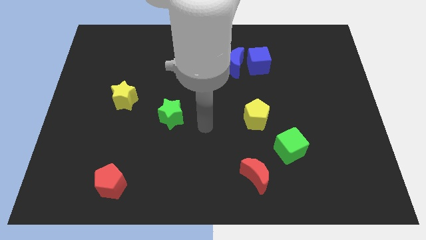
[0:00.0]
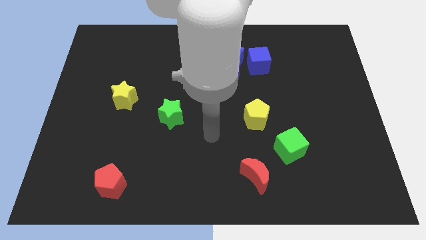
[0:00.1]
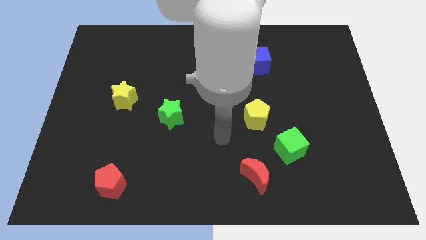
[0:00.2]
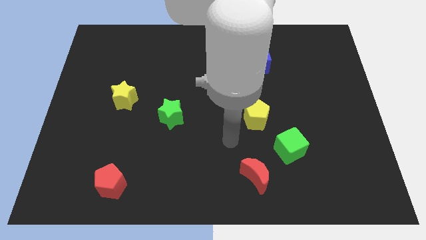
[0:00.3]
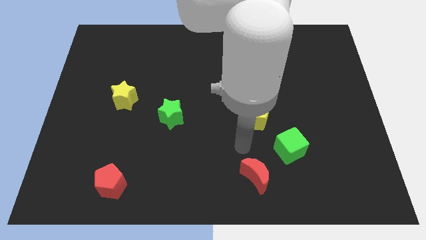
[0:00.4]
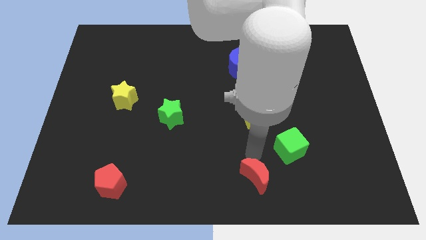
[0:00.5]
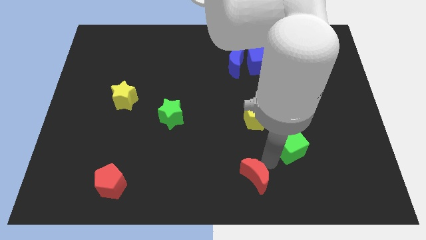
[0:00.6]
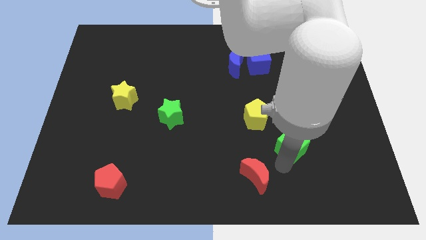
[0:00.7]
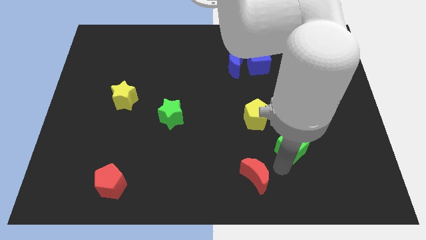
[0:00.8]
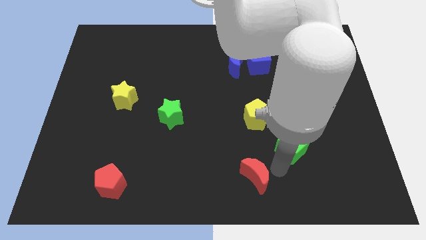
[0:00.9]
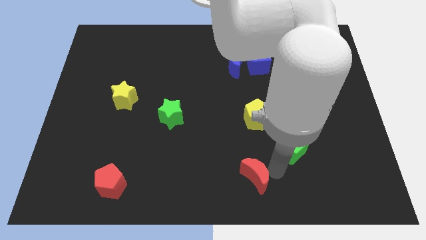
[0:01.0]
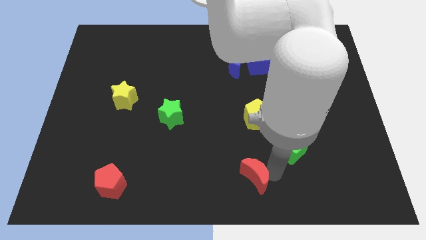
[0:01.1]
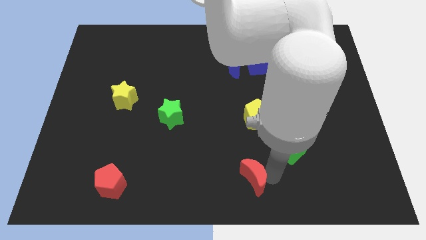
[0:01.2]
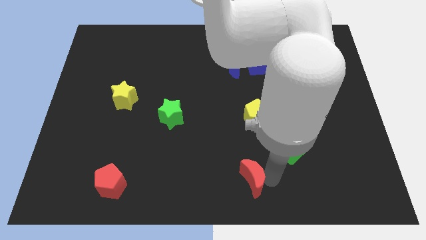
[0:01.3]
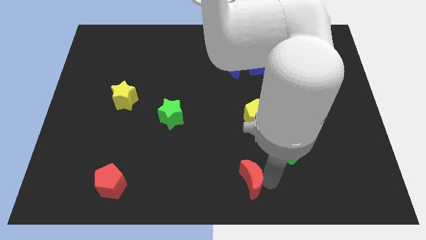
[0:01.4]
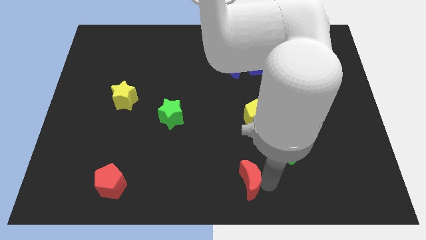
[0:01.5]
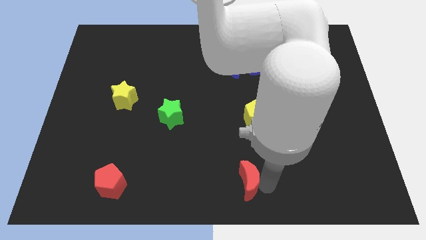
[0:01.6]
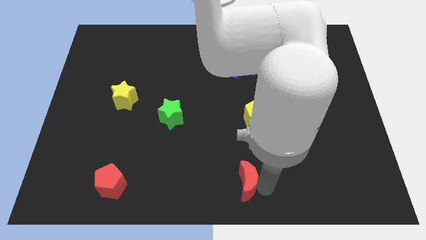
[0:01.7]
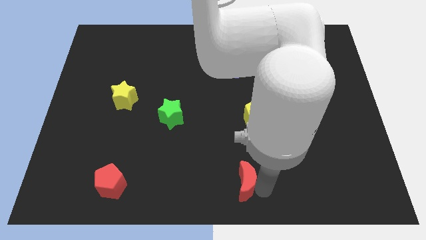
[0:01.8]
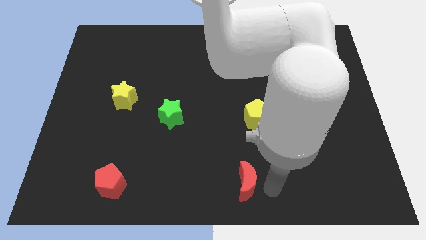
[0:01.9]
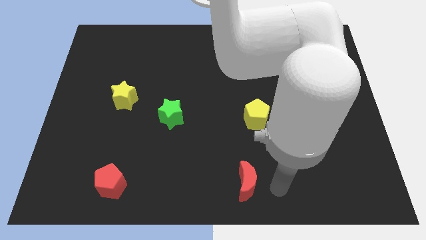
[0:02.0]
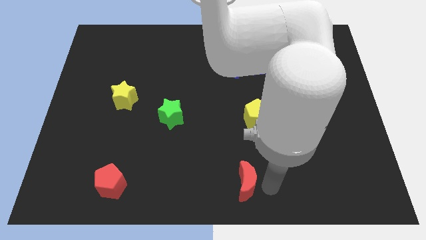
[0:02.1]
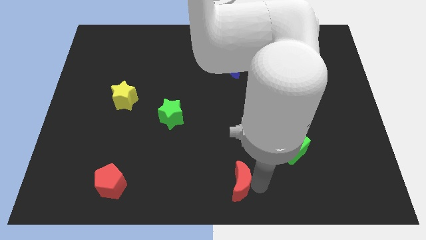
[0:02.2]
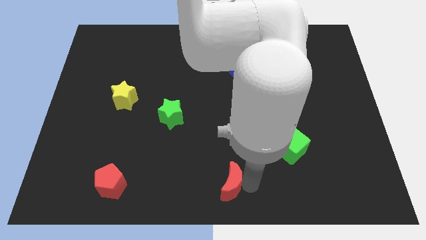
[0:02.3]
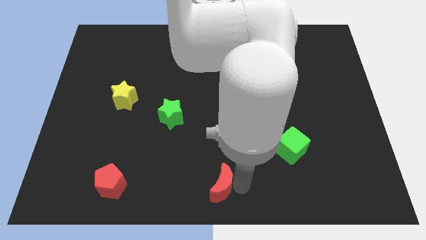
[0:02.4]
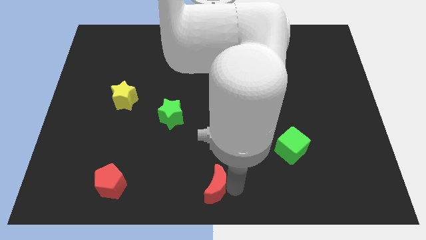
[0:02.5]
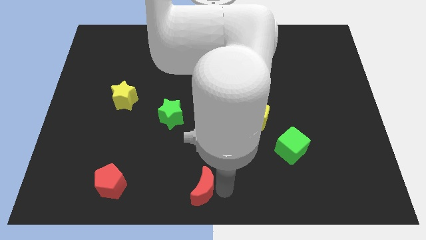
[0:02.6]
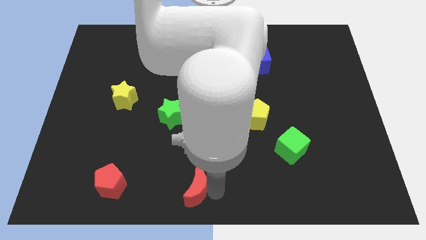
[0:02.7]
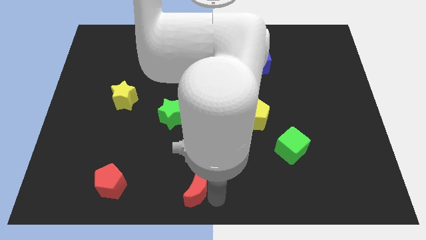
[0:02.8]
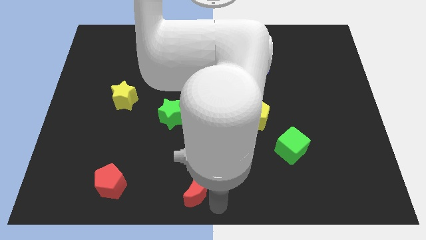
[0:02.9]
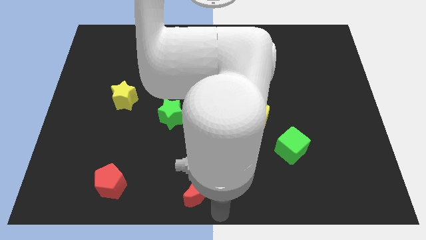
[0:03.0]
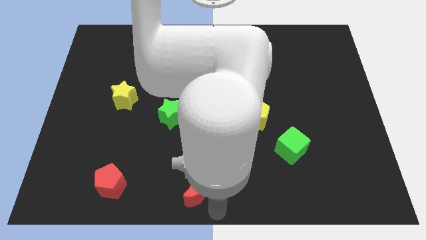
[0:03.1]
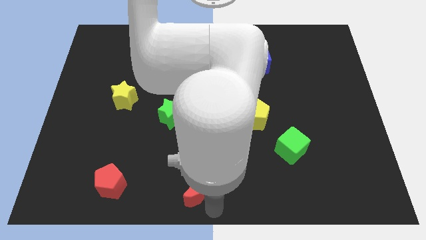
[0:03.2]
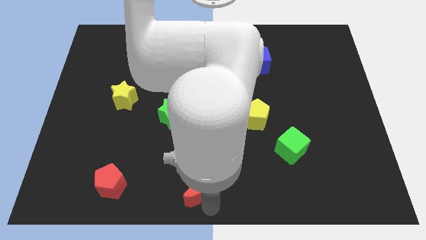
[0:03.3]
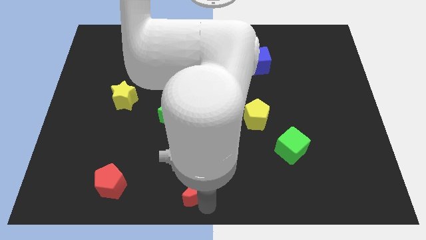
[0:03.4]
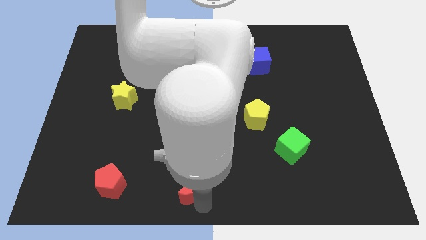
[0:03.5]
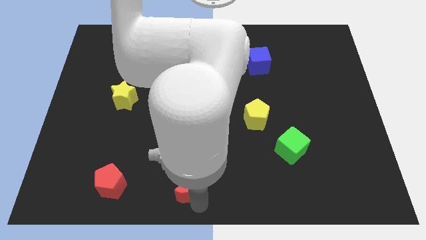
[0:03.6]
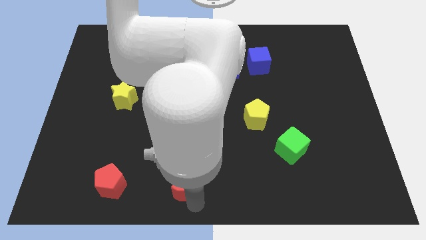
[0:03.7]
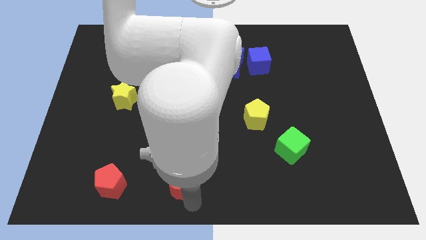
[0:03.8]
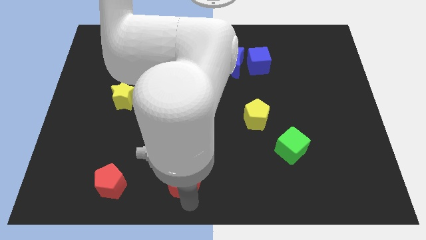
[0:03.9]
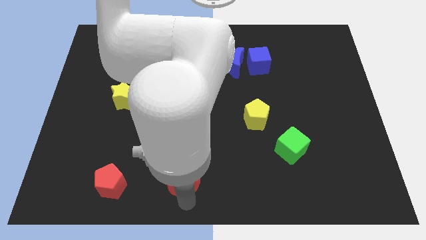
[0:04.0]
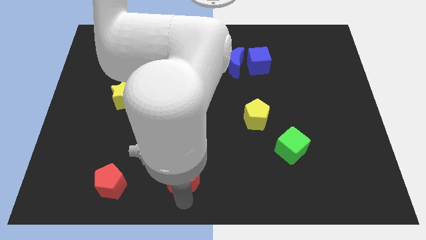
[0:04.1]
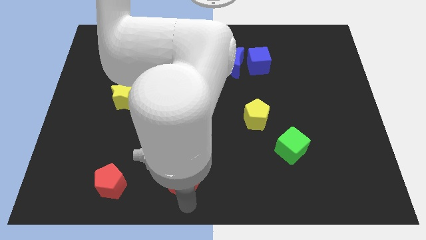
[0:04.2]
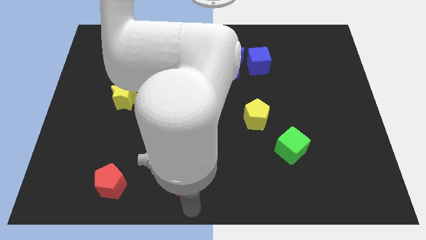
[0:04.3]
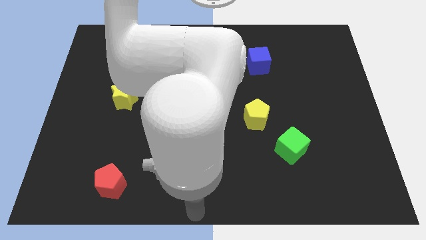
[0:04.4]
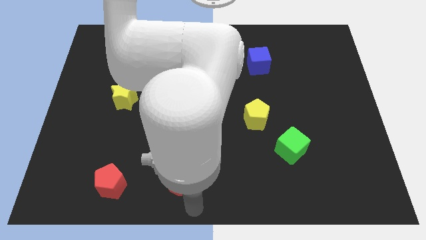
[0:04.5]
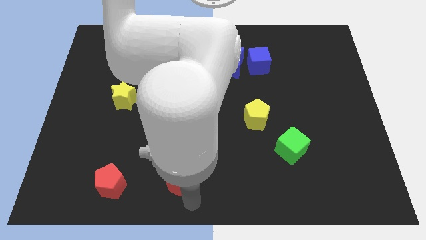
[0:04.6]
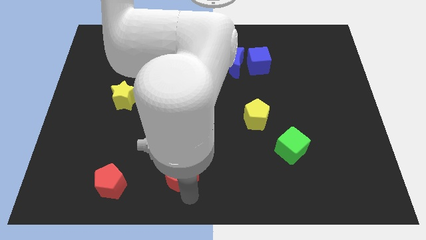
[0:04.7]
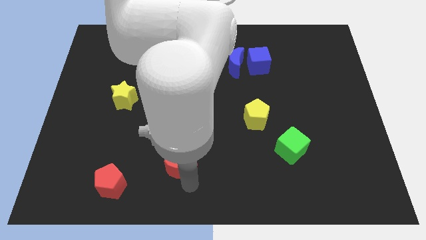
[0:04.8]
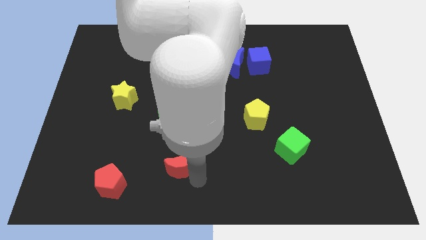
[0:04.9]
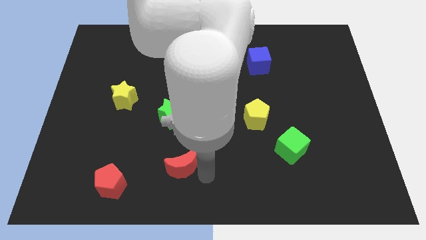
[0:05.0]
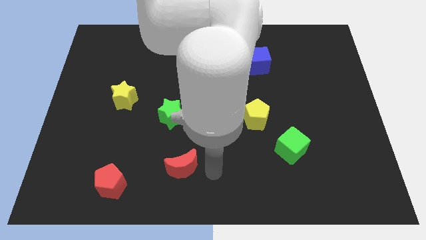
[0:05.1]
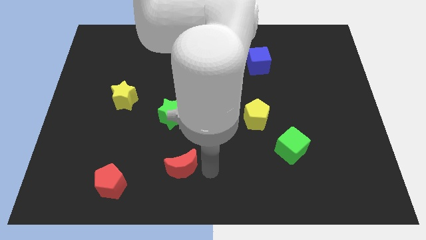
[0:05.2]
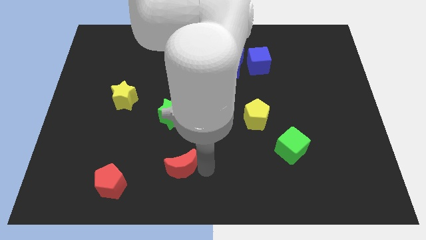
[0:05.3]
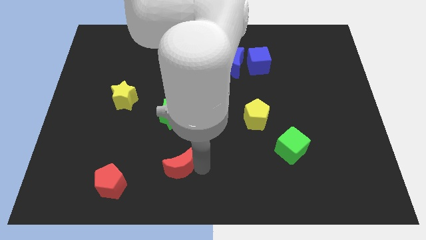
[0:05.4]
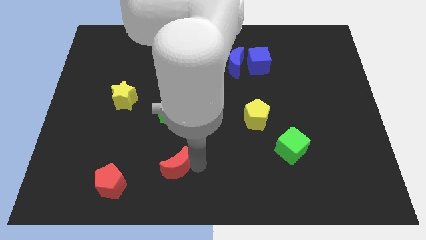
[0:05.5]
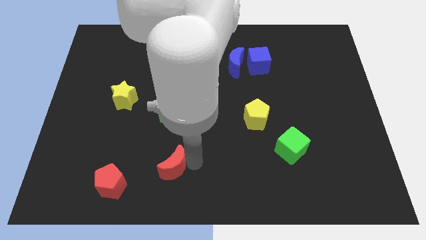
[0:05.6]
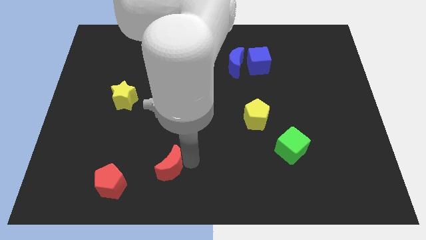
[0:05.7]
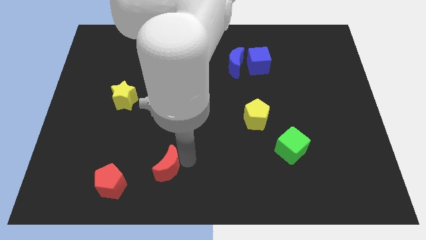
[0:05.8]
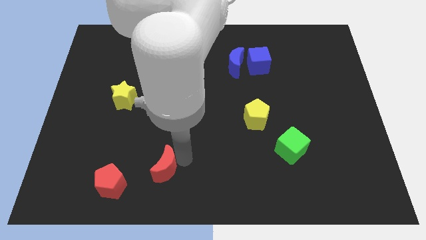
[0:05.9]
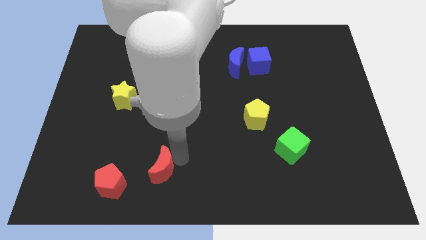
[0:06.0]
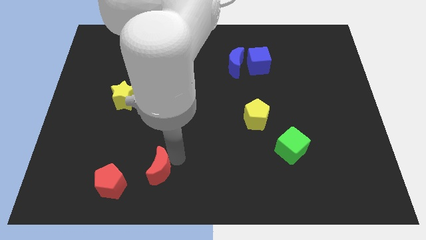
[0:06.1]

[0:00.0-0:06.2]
push the red moon to the top right of the red pentagon

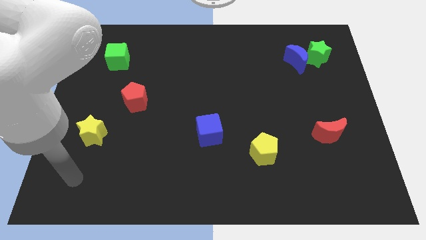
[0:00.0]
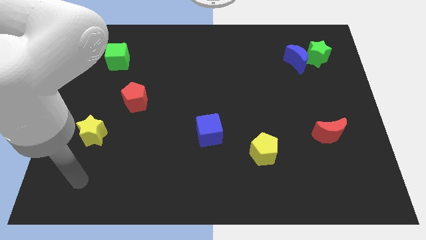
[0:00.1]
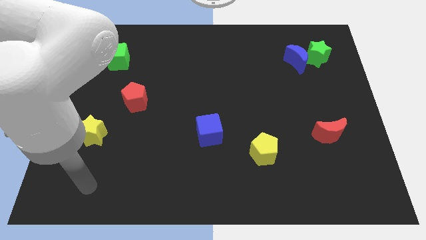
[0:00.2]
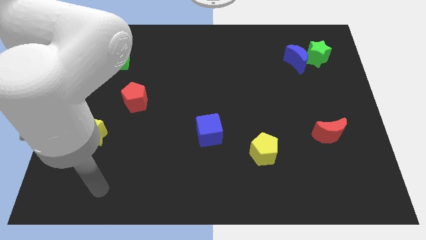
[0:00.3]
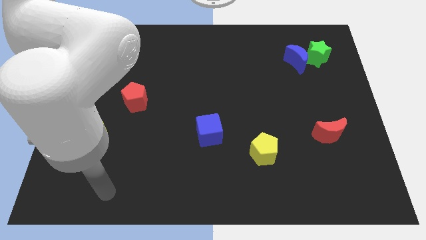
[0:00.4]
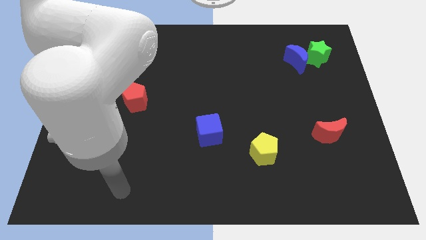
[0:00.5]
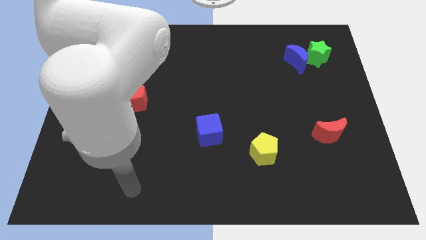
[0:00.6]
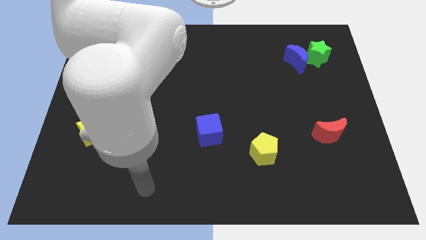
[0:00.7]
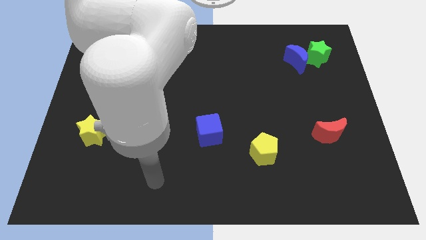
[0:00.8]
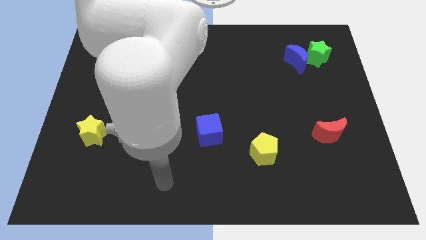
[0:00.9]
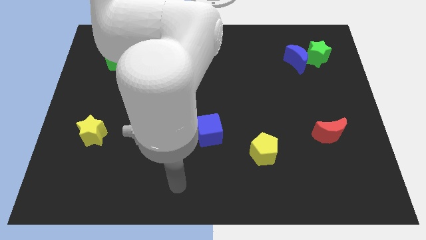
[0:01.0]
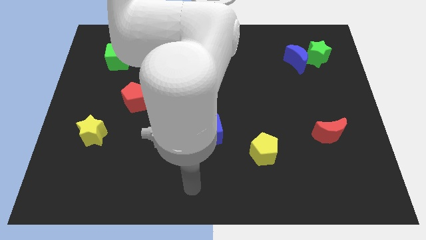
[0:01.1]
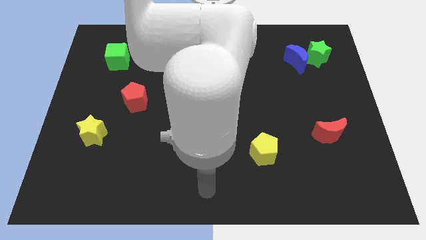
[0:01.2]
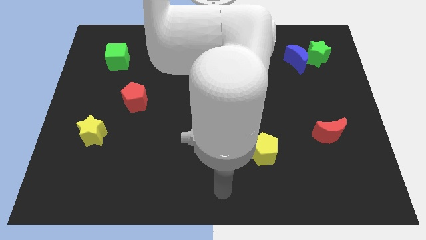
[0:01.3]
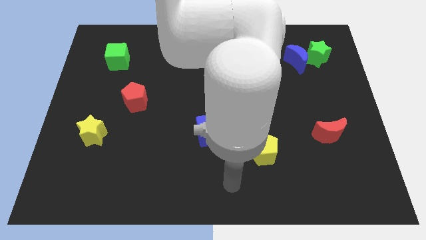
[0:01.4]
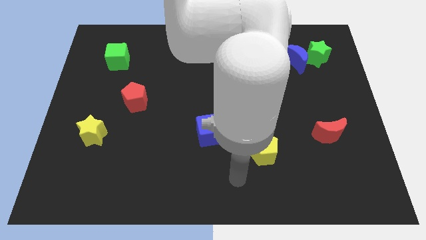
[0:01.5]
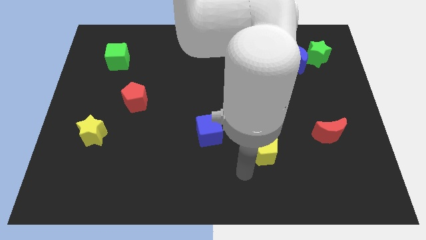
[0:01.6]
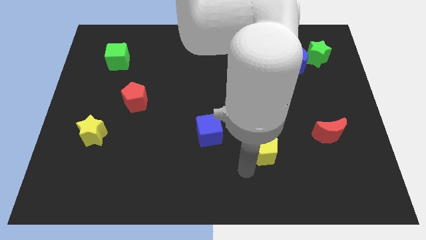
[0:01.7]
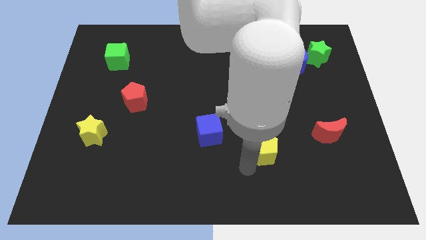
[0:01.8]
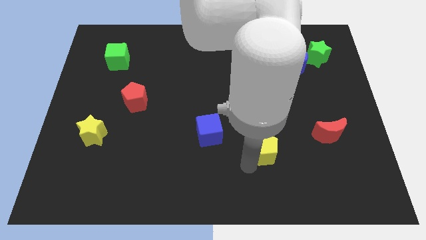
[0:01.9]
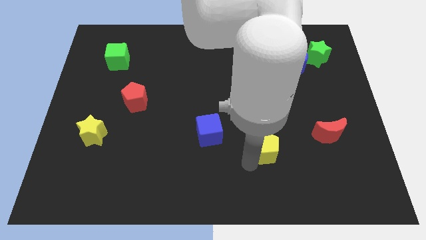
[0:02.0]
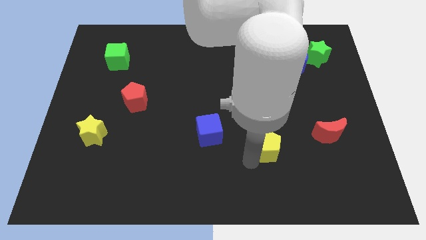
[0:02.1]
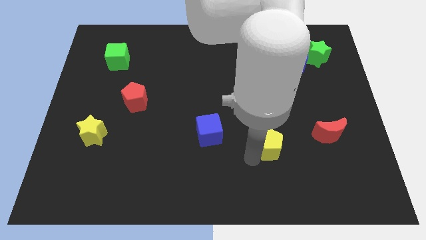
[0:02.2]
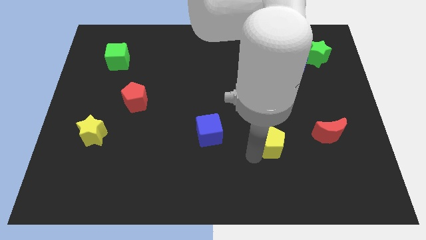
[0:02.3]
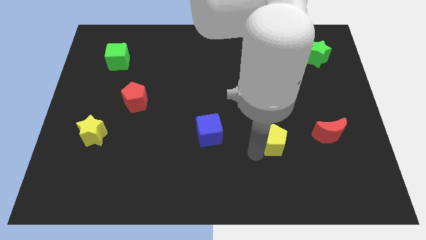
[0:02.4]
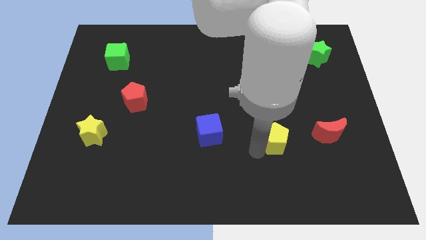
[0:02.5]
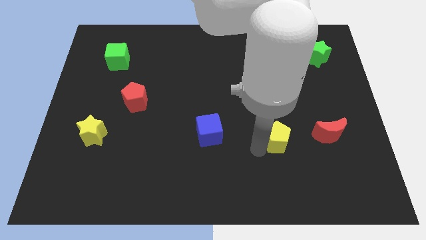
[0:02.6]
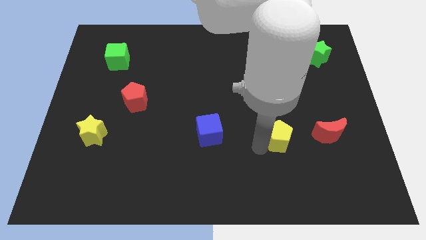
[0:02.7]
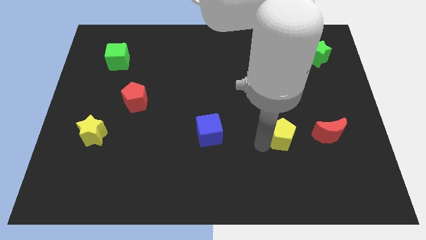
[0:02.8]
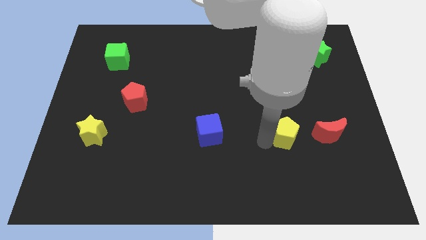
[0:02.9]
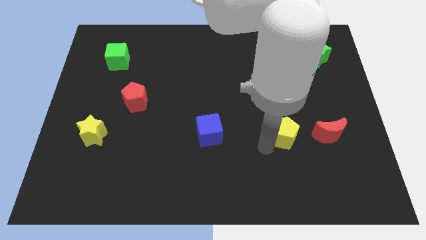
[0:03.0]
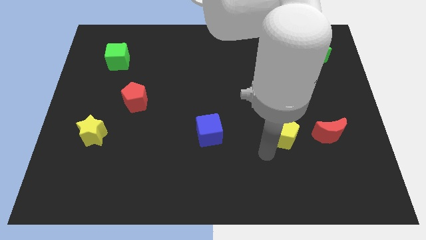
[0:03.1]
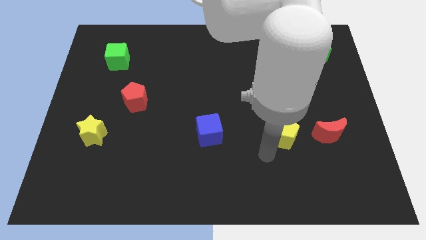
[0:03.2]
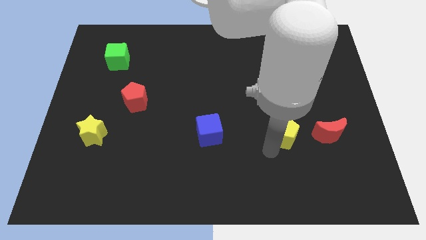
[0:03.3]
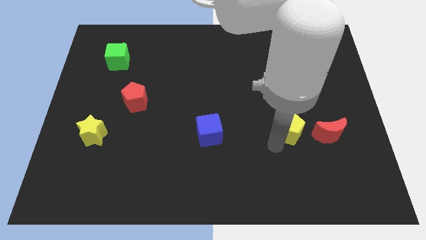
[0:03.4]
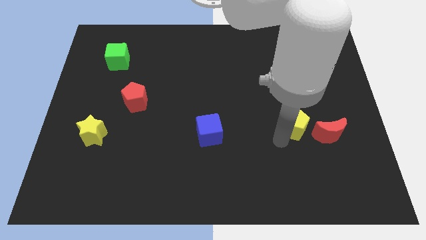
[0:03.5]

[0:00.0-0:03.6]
slide the yellow pentagon to the top left of the red moon
